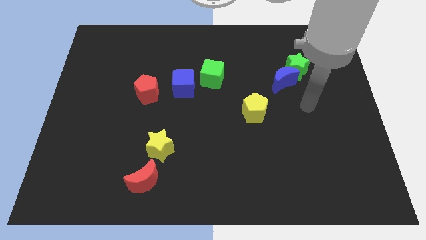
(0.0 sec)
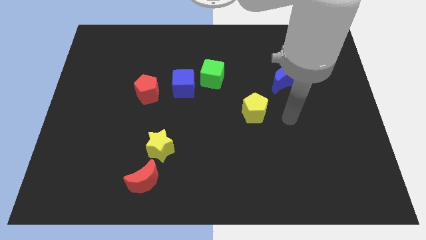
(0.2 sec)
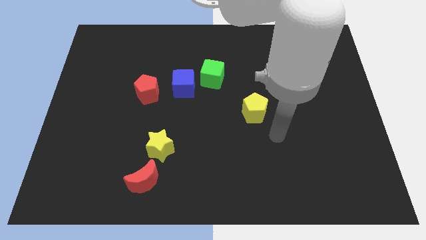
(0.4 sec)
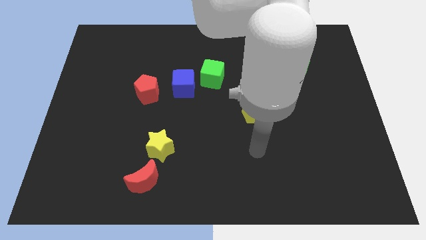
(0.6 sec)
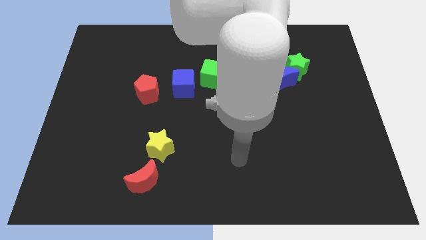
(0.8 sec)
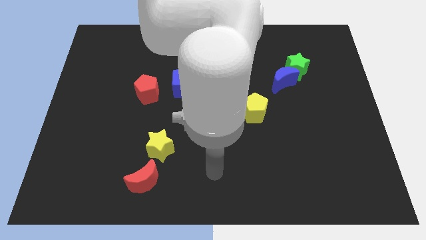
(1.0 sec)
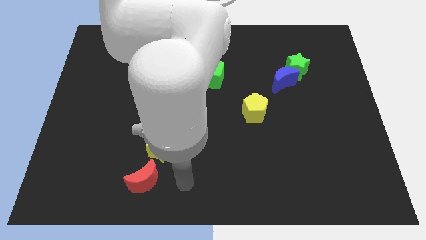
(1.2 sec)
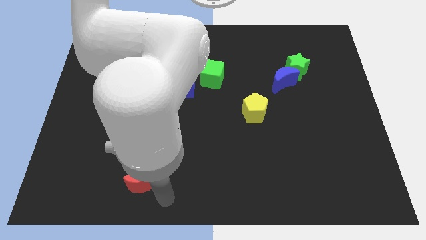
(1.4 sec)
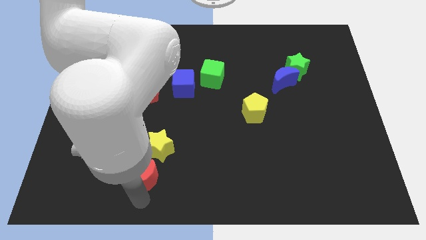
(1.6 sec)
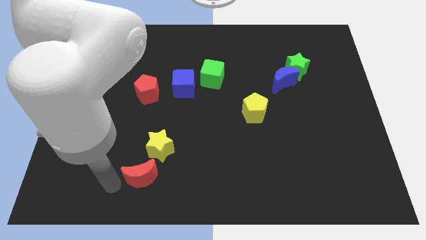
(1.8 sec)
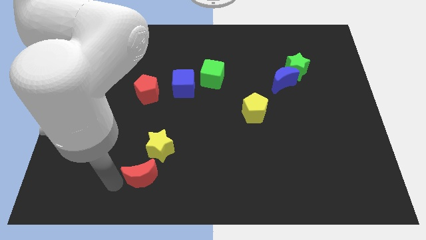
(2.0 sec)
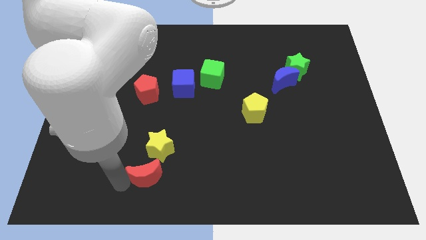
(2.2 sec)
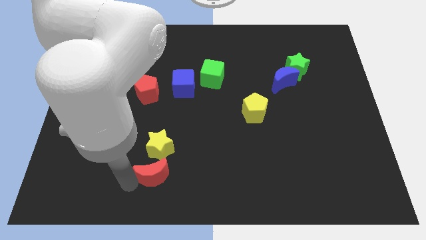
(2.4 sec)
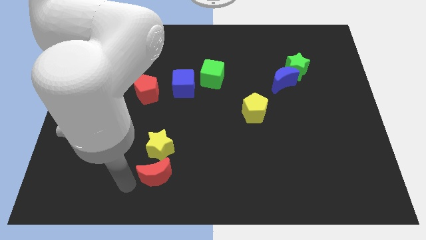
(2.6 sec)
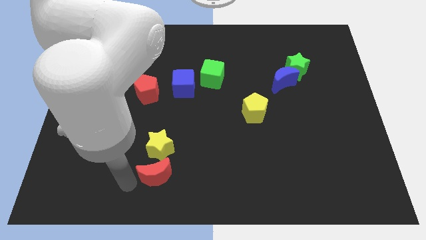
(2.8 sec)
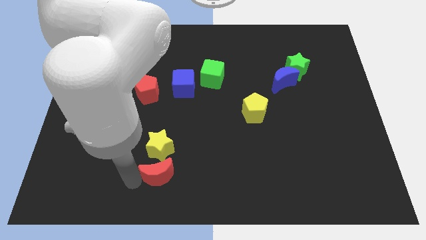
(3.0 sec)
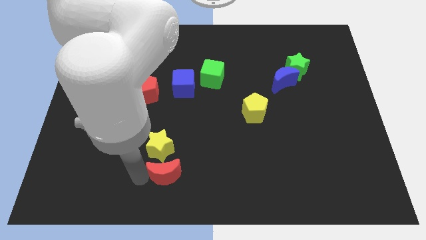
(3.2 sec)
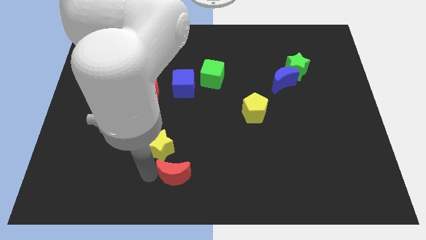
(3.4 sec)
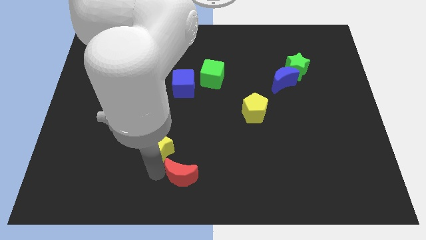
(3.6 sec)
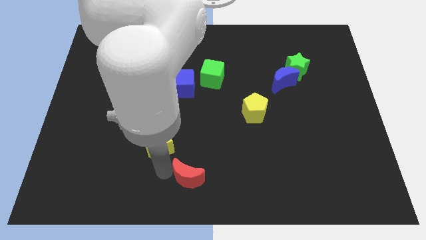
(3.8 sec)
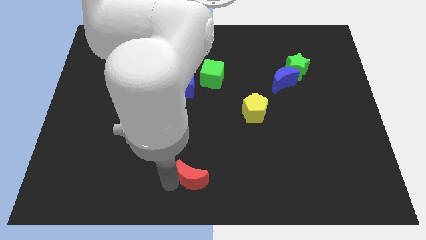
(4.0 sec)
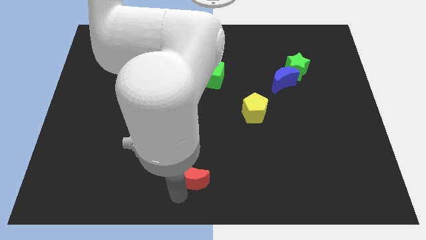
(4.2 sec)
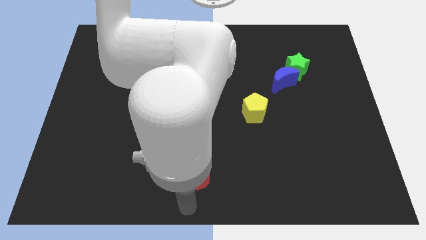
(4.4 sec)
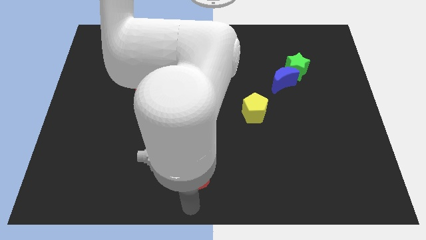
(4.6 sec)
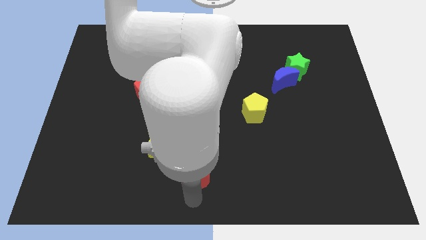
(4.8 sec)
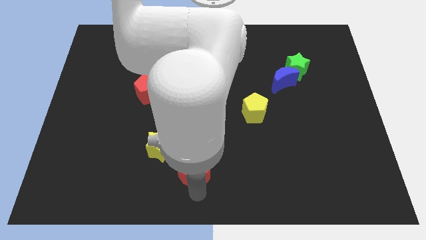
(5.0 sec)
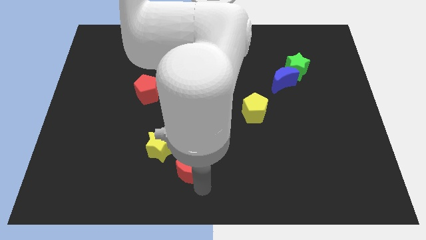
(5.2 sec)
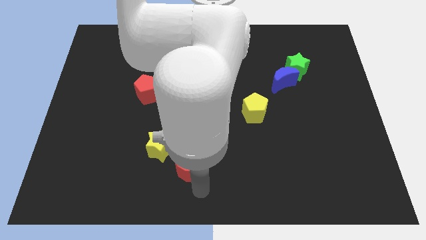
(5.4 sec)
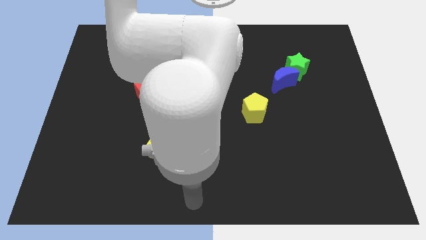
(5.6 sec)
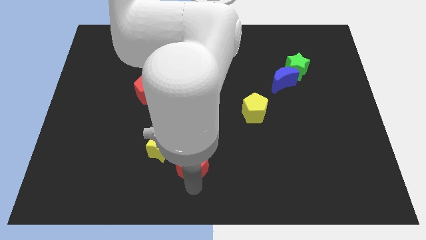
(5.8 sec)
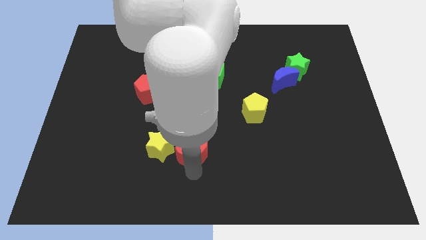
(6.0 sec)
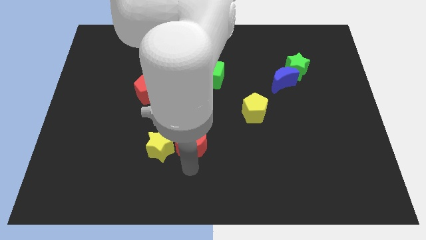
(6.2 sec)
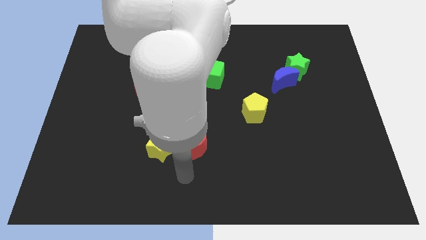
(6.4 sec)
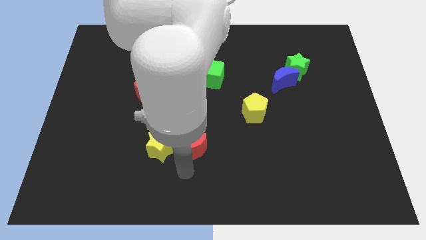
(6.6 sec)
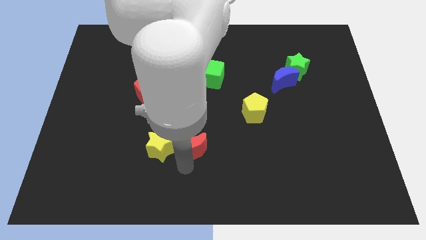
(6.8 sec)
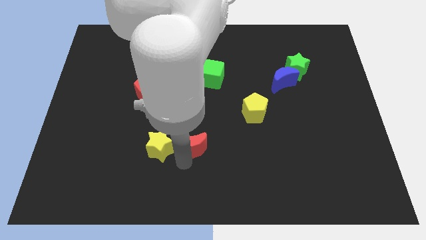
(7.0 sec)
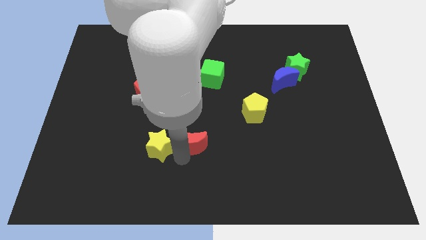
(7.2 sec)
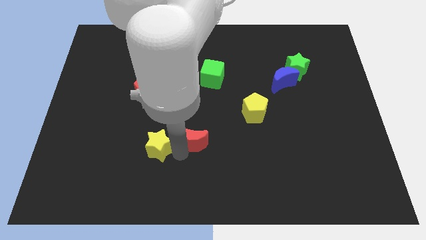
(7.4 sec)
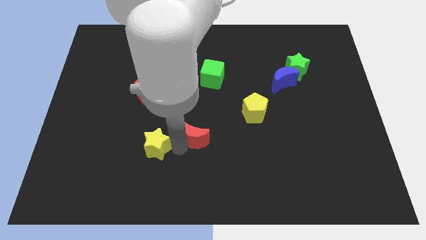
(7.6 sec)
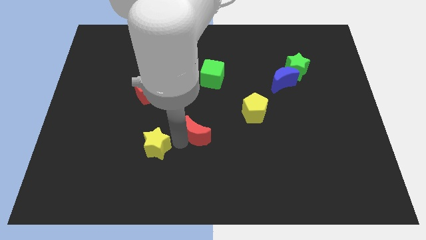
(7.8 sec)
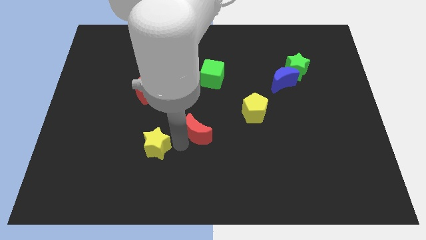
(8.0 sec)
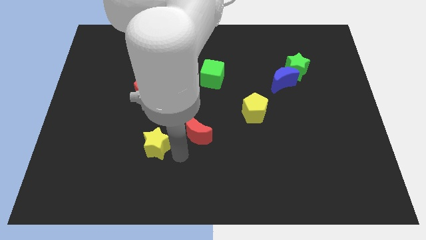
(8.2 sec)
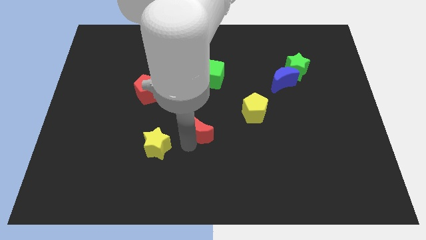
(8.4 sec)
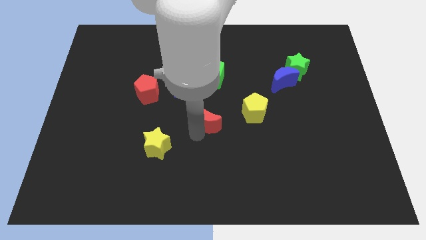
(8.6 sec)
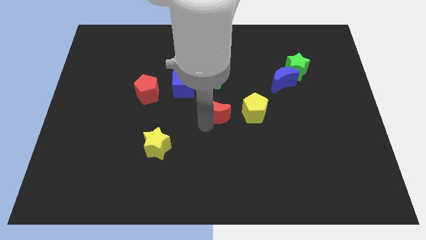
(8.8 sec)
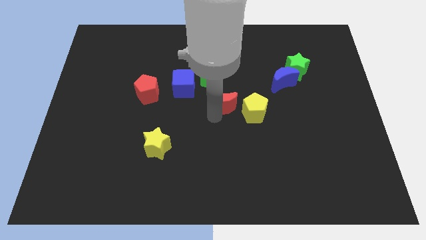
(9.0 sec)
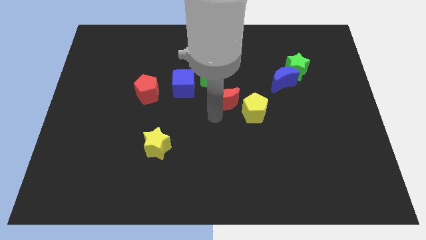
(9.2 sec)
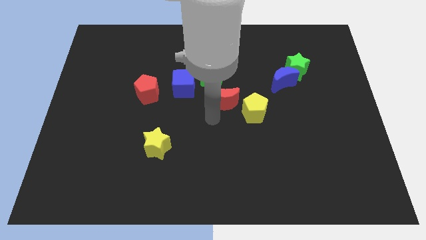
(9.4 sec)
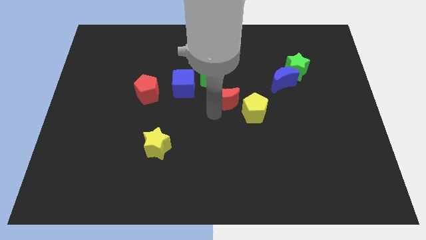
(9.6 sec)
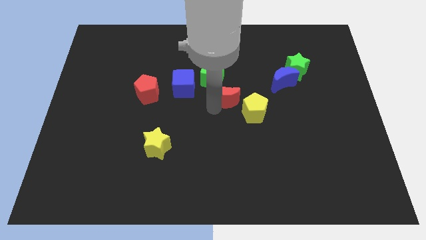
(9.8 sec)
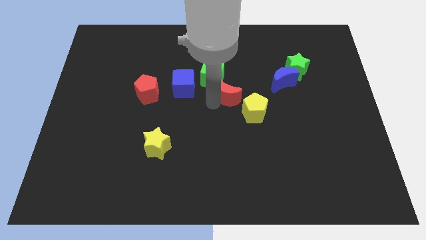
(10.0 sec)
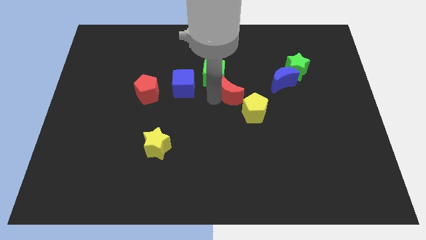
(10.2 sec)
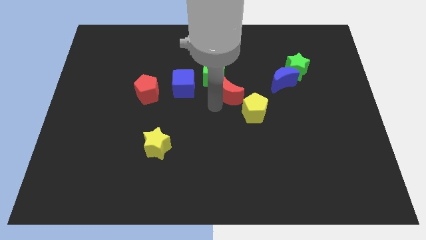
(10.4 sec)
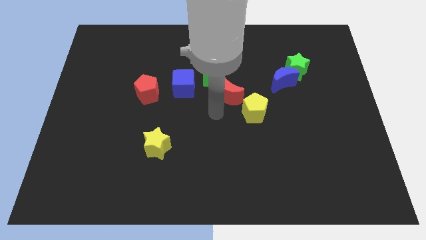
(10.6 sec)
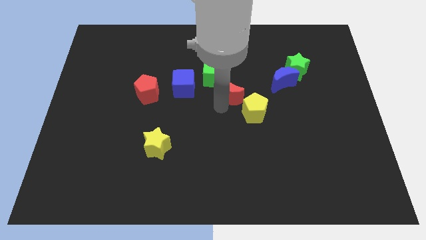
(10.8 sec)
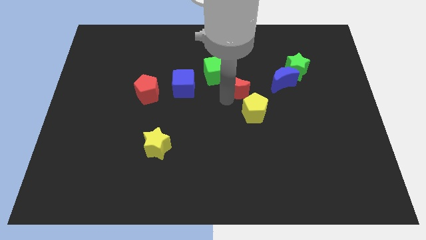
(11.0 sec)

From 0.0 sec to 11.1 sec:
slide the red moon to the top side of the yellow pentagon

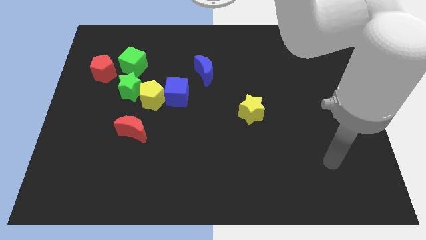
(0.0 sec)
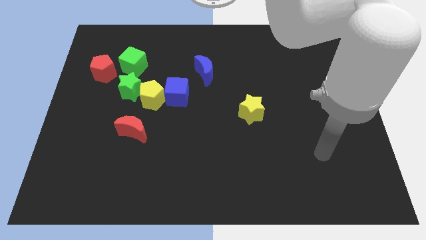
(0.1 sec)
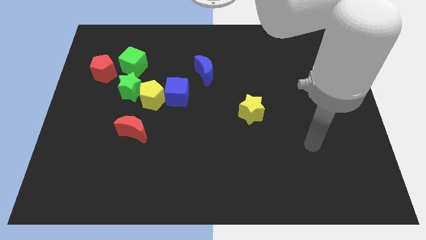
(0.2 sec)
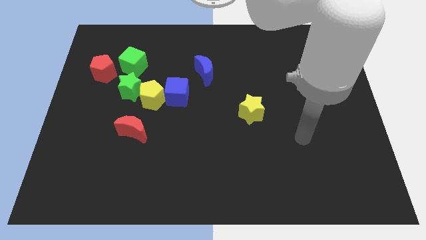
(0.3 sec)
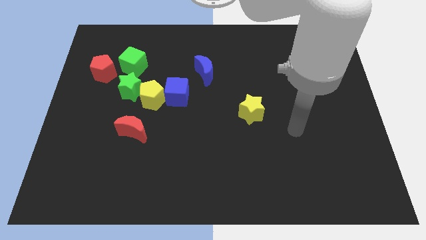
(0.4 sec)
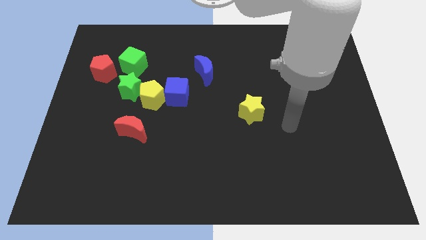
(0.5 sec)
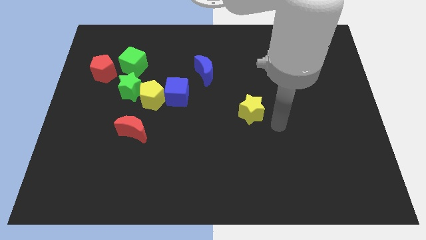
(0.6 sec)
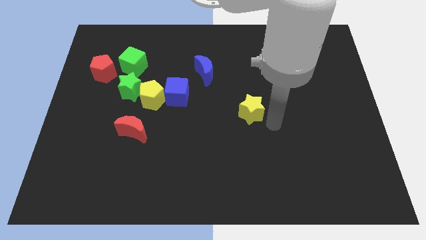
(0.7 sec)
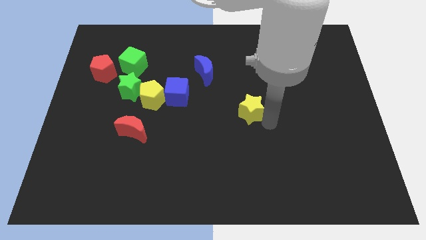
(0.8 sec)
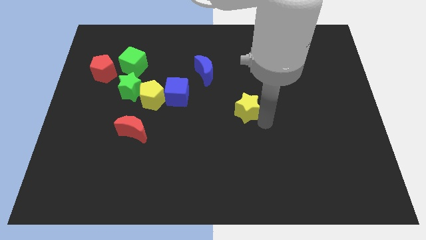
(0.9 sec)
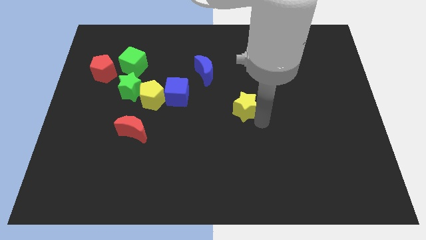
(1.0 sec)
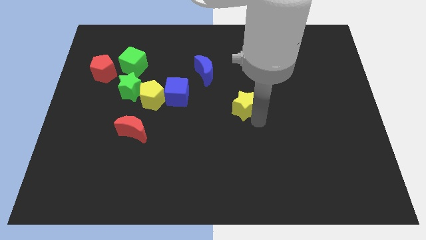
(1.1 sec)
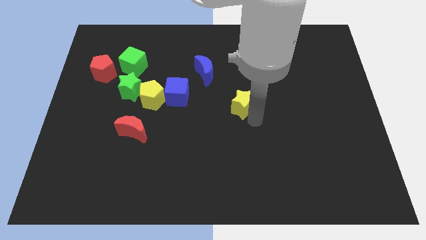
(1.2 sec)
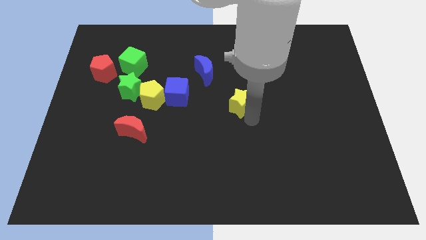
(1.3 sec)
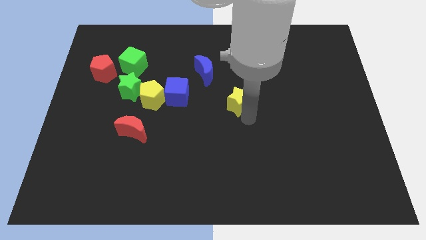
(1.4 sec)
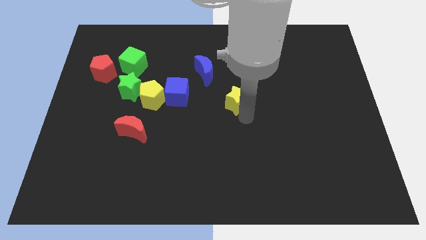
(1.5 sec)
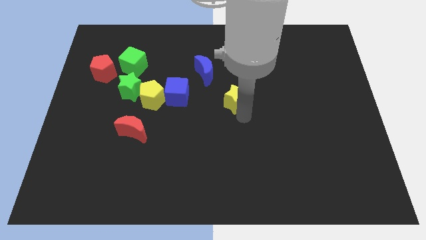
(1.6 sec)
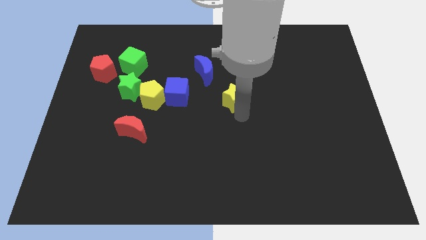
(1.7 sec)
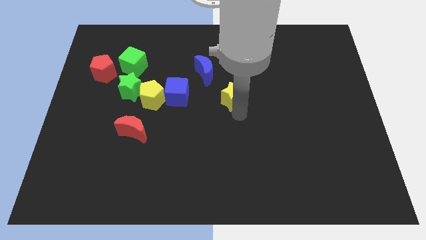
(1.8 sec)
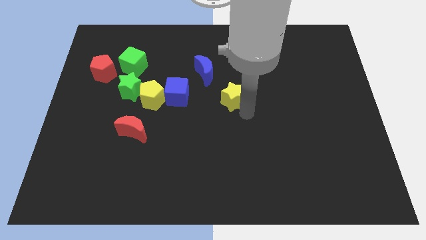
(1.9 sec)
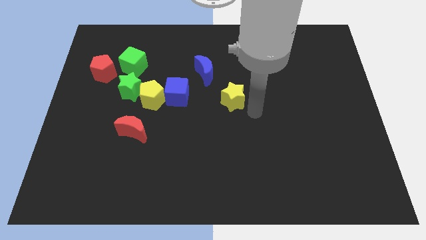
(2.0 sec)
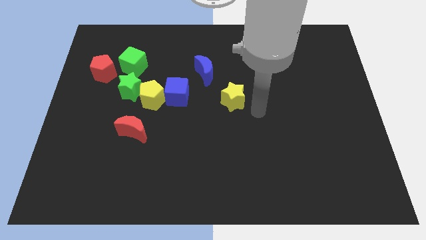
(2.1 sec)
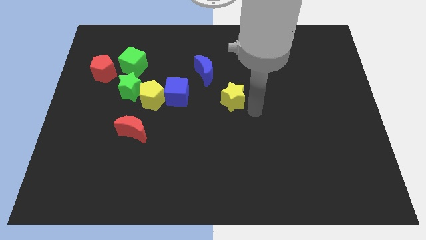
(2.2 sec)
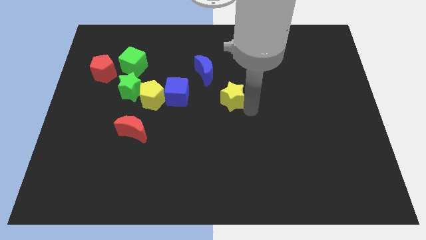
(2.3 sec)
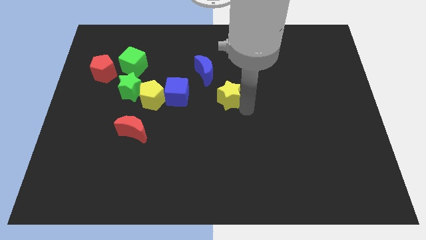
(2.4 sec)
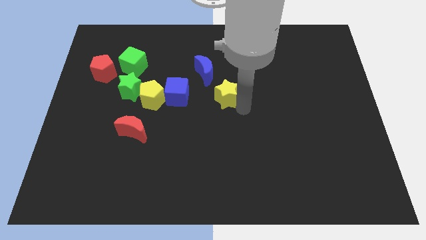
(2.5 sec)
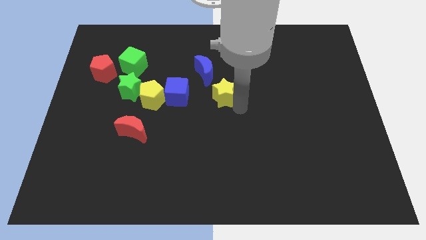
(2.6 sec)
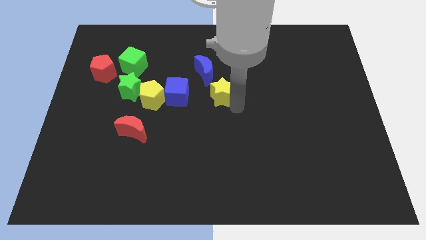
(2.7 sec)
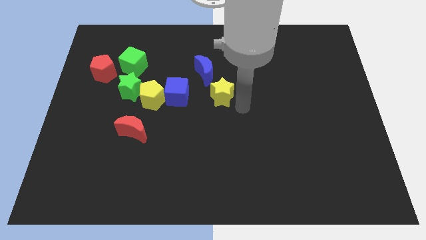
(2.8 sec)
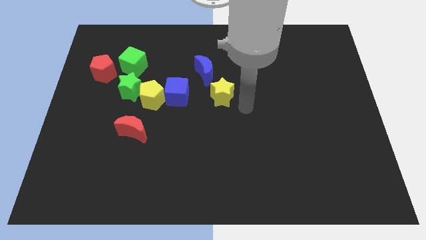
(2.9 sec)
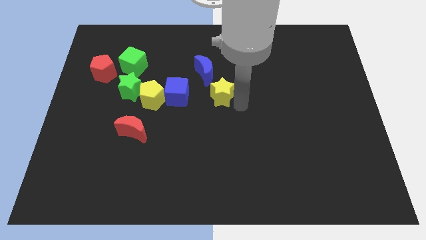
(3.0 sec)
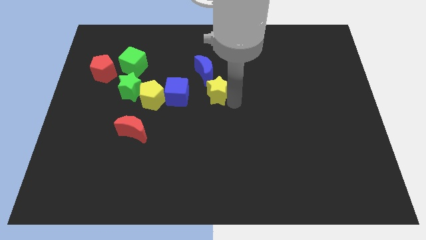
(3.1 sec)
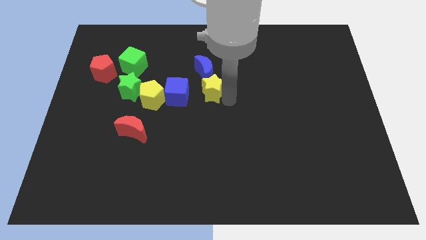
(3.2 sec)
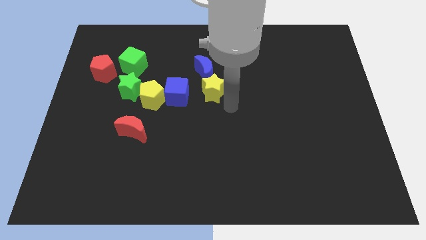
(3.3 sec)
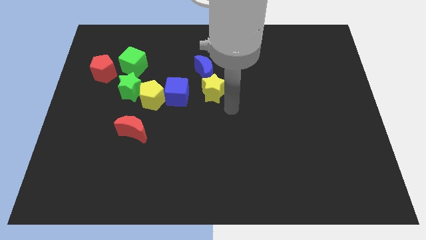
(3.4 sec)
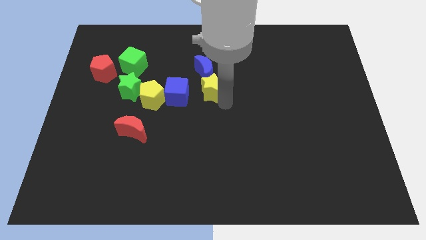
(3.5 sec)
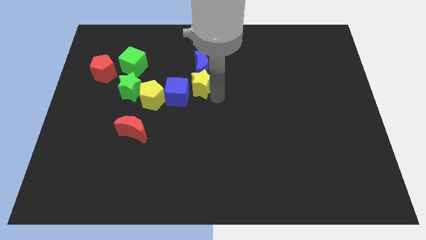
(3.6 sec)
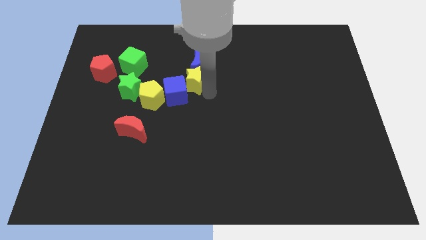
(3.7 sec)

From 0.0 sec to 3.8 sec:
push the yellow star above the blue cube
